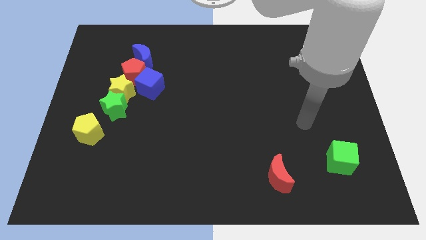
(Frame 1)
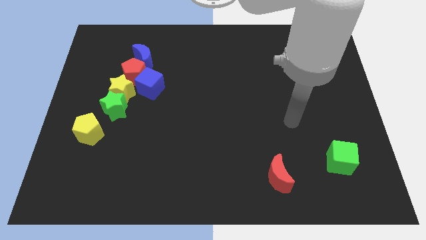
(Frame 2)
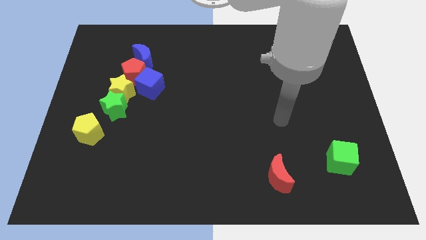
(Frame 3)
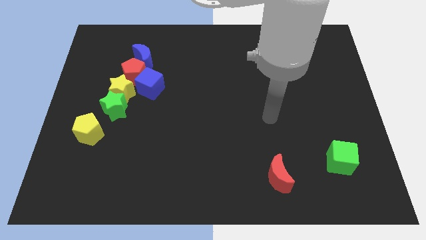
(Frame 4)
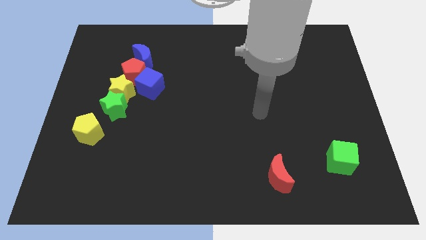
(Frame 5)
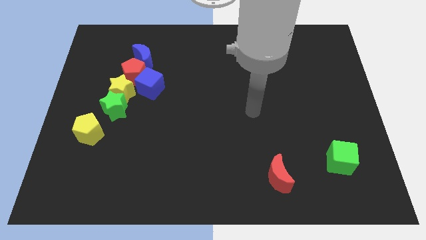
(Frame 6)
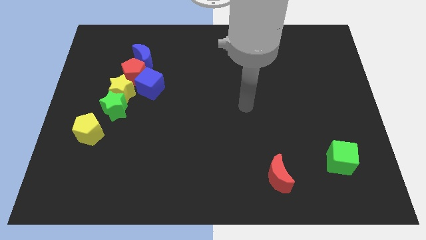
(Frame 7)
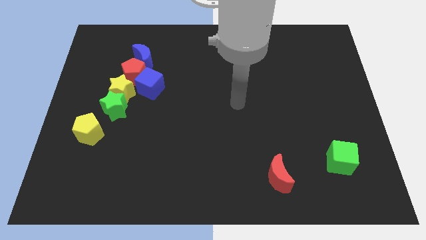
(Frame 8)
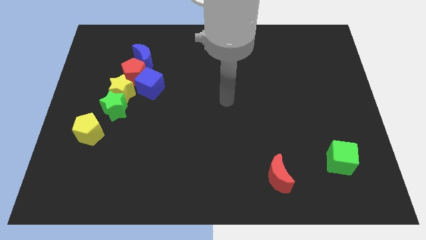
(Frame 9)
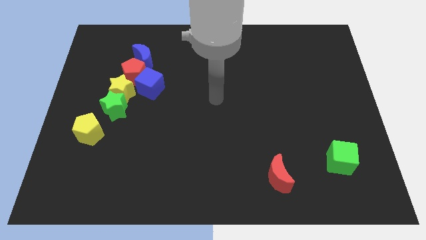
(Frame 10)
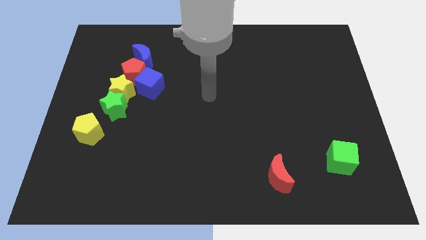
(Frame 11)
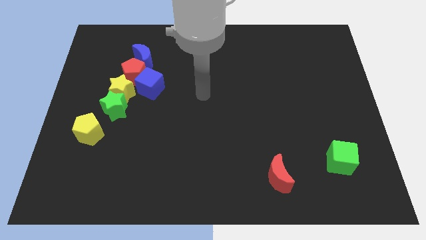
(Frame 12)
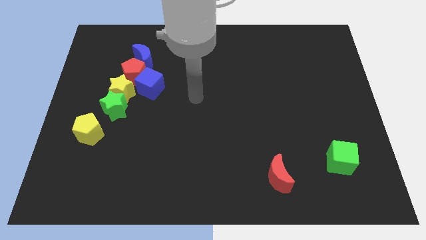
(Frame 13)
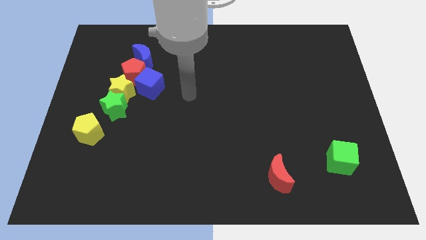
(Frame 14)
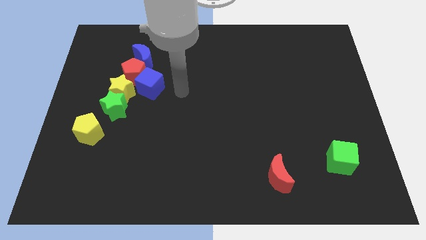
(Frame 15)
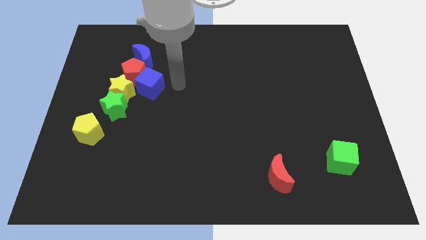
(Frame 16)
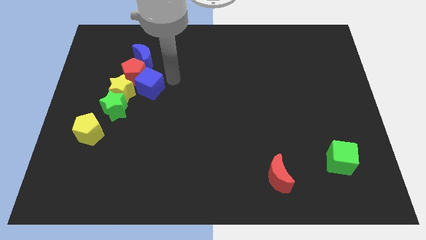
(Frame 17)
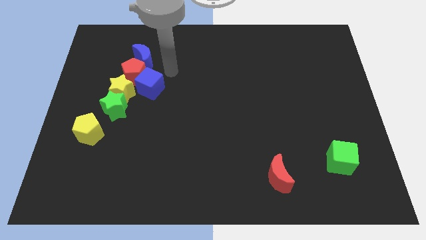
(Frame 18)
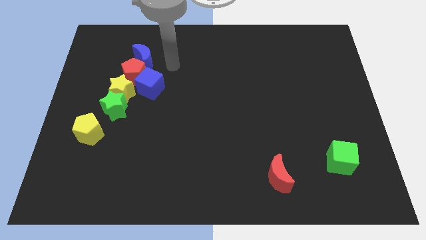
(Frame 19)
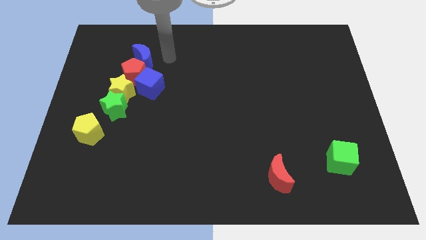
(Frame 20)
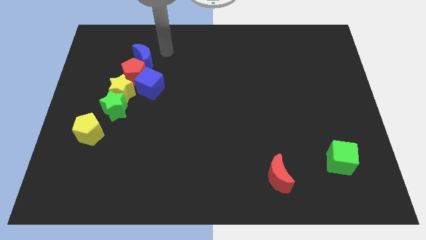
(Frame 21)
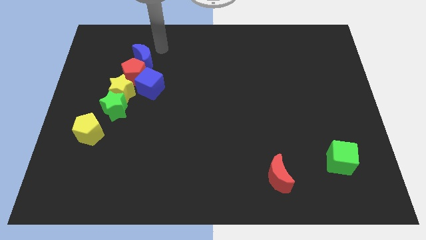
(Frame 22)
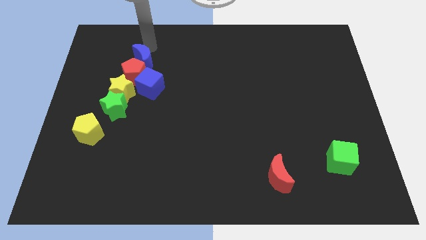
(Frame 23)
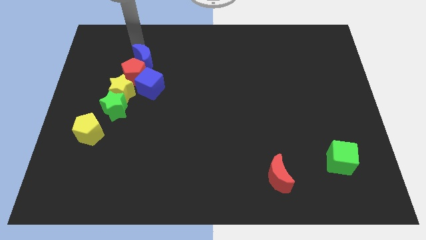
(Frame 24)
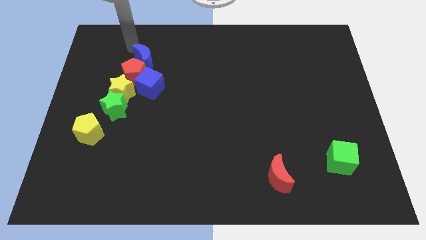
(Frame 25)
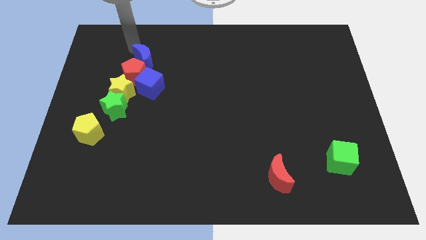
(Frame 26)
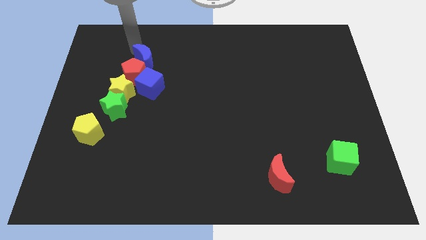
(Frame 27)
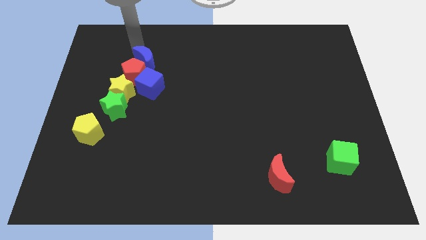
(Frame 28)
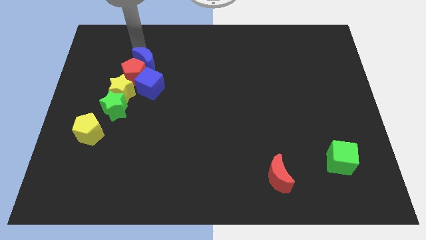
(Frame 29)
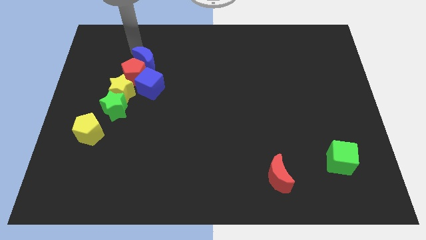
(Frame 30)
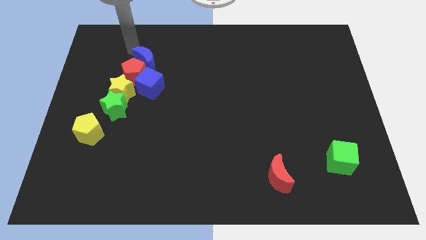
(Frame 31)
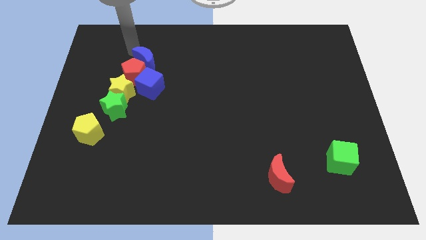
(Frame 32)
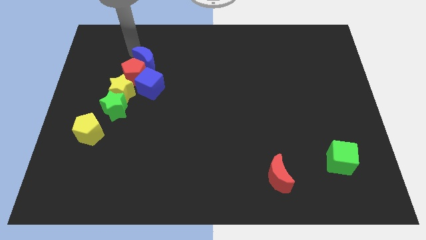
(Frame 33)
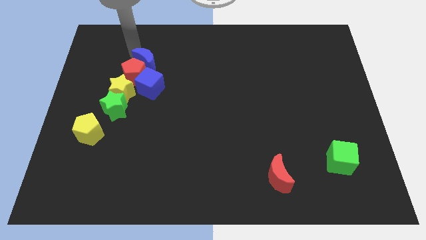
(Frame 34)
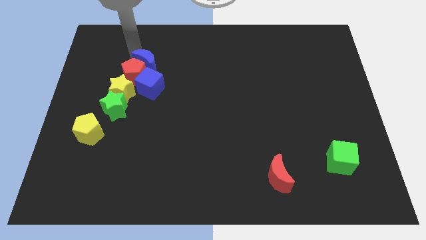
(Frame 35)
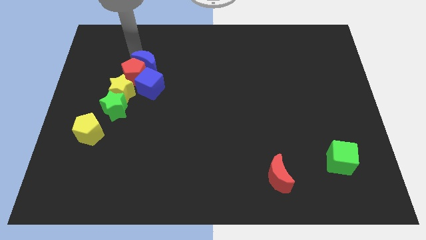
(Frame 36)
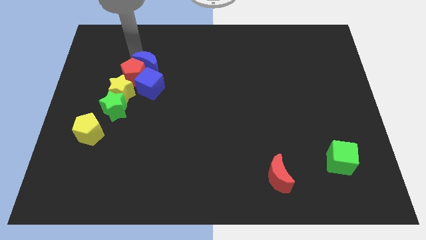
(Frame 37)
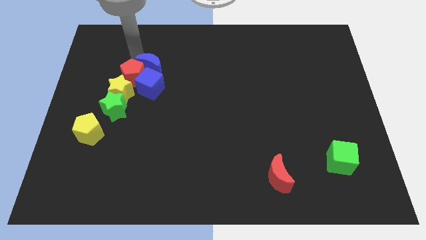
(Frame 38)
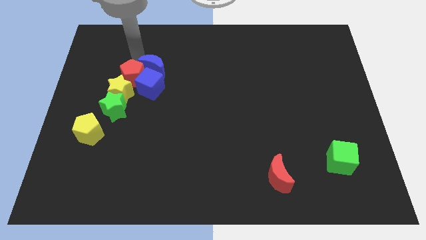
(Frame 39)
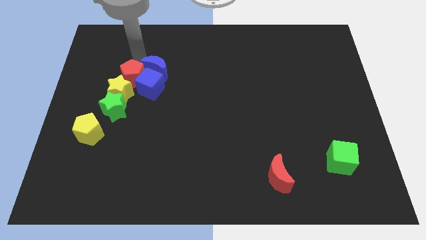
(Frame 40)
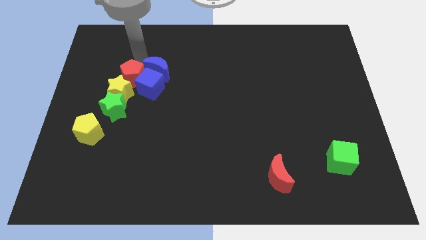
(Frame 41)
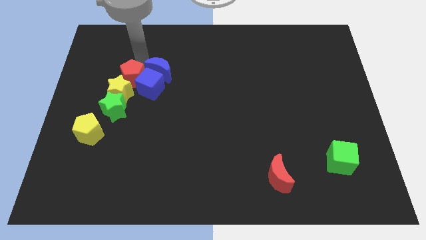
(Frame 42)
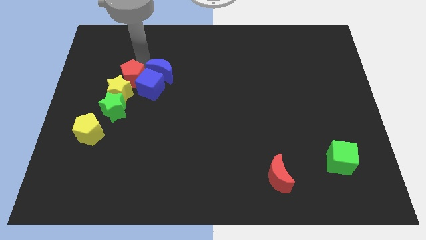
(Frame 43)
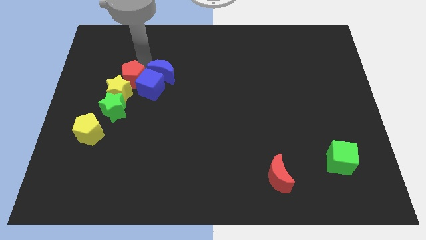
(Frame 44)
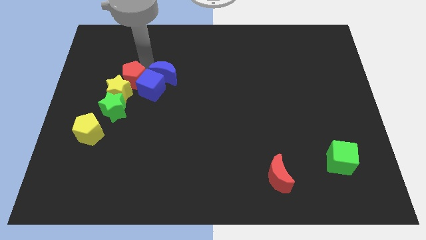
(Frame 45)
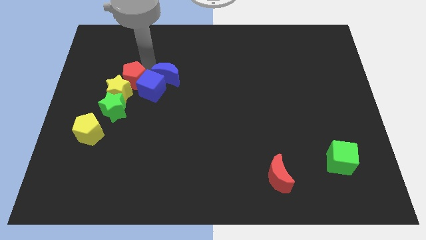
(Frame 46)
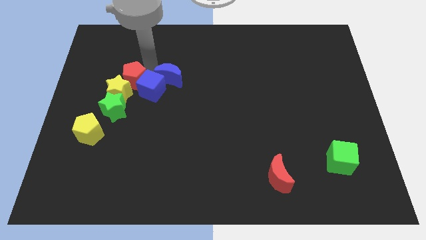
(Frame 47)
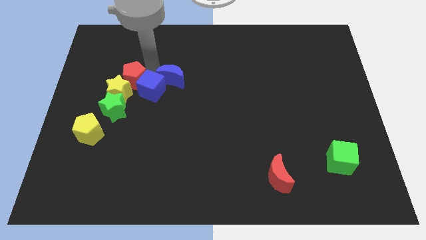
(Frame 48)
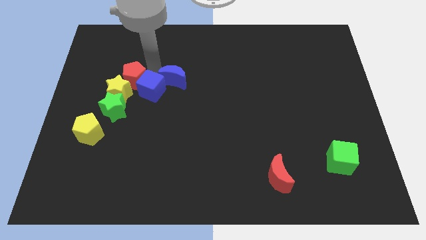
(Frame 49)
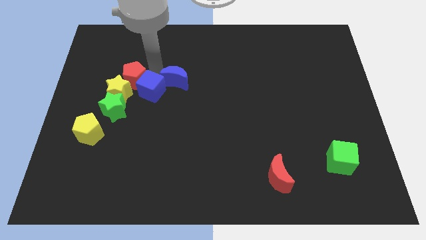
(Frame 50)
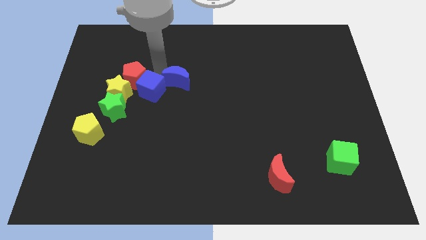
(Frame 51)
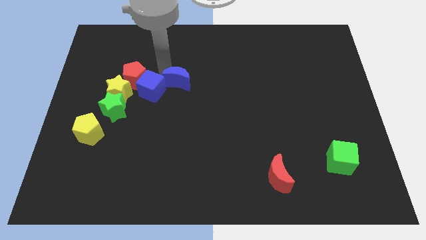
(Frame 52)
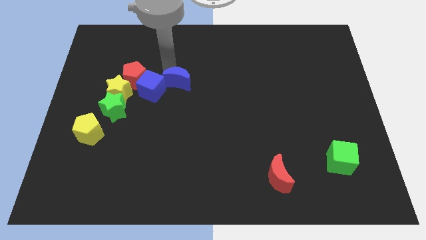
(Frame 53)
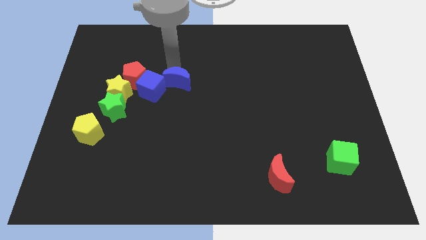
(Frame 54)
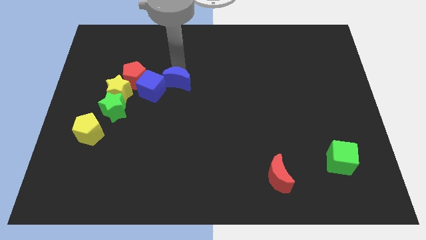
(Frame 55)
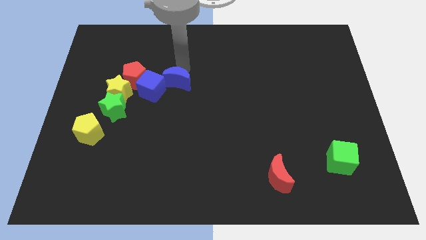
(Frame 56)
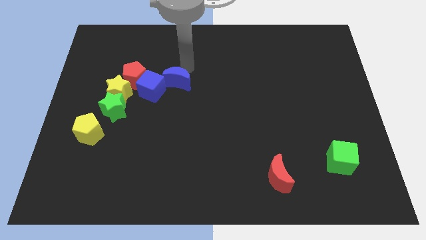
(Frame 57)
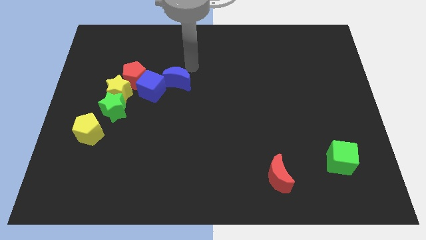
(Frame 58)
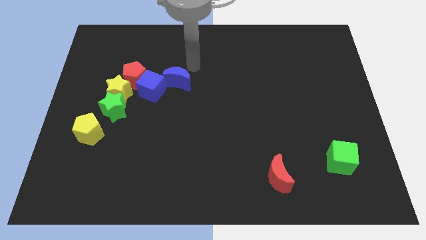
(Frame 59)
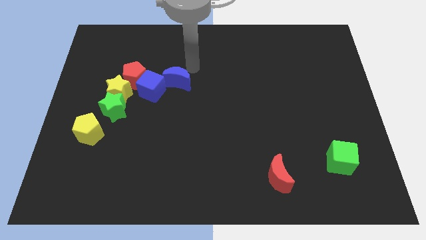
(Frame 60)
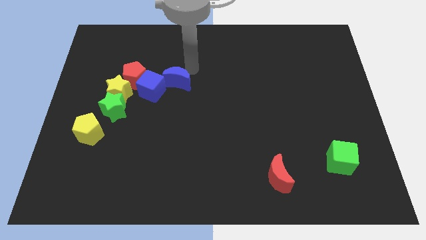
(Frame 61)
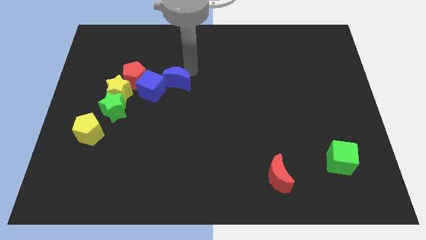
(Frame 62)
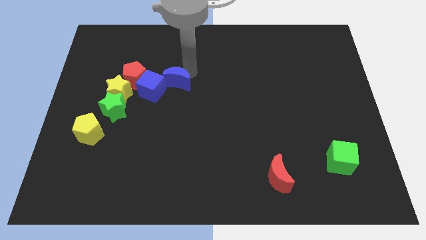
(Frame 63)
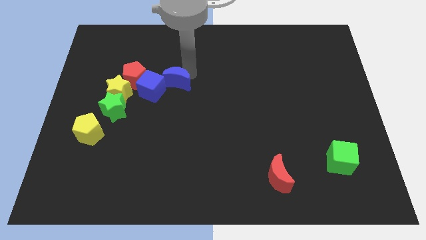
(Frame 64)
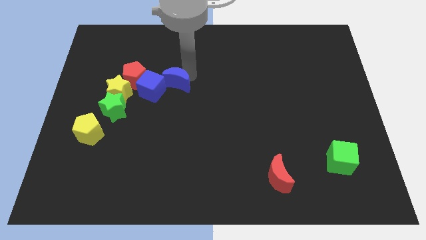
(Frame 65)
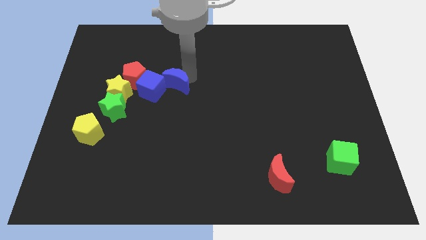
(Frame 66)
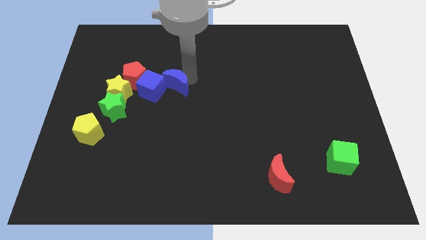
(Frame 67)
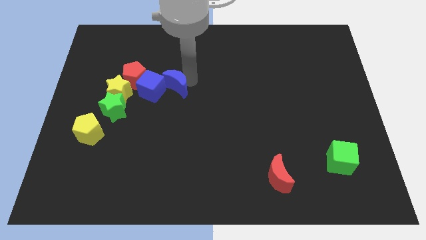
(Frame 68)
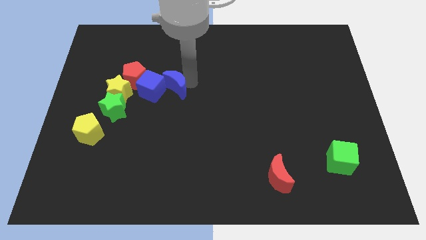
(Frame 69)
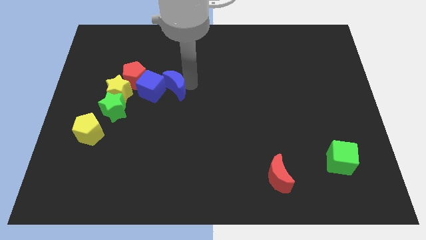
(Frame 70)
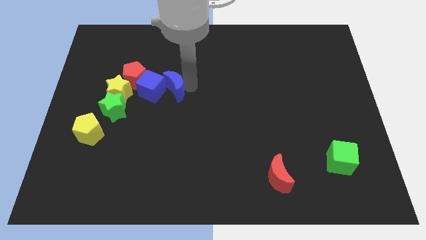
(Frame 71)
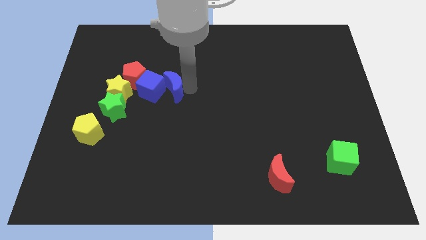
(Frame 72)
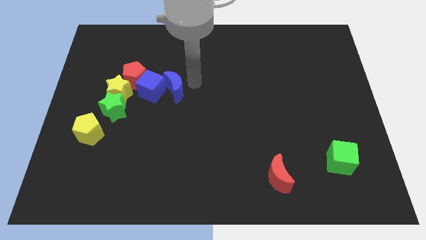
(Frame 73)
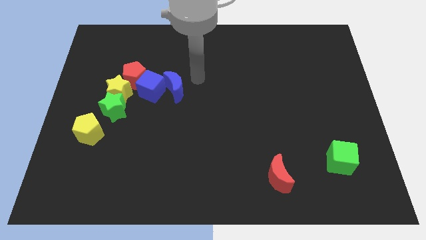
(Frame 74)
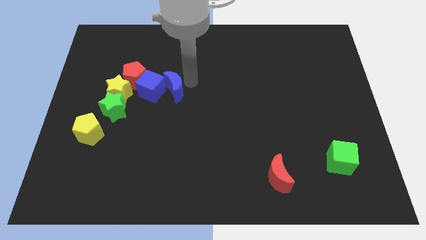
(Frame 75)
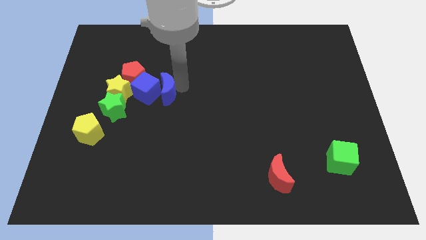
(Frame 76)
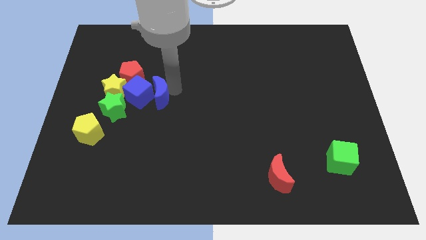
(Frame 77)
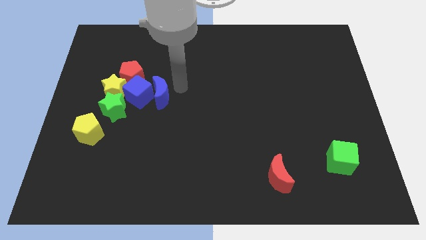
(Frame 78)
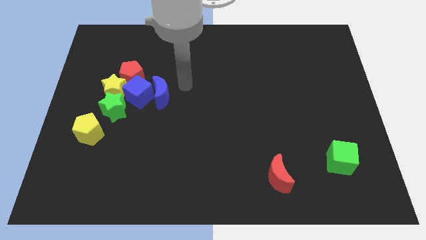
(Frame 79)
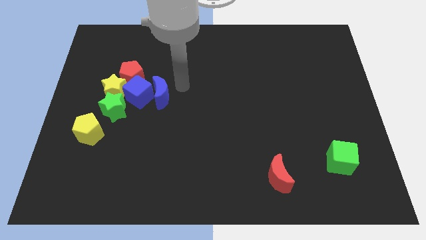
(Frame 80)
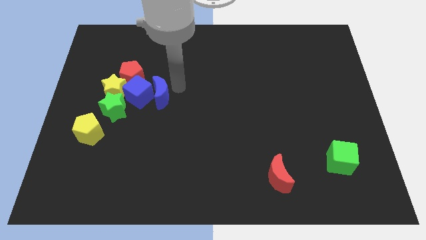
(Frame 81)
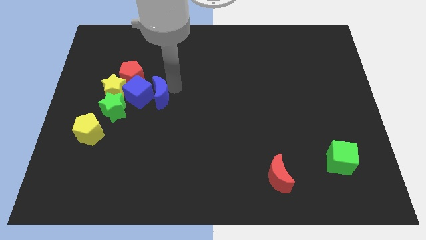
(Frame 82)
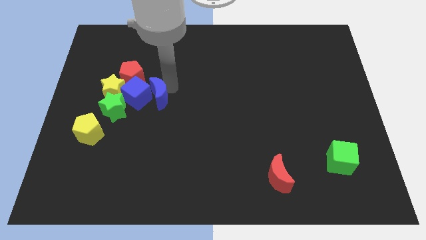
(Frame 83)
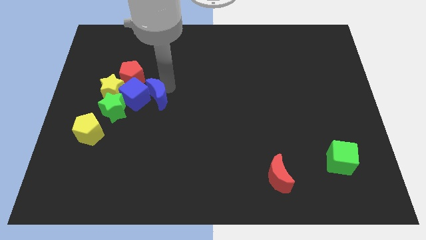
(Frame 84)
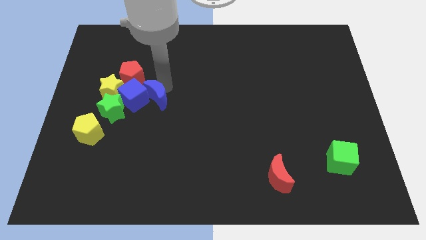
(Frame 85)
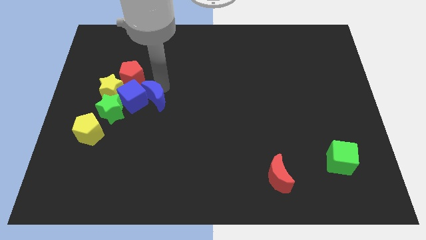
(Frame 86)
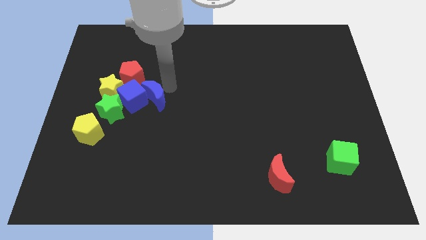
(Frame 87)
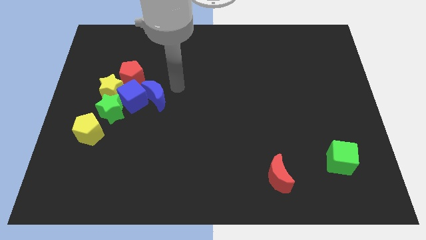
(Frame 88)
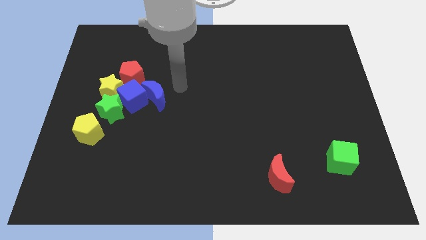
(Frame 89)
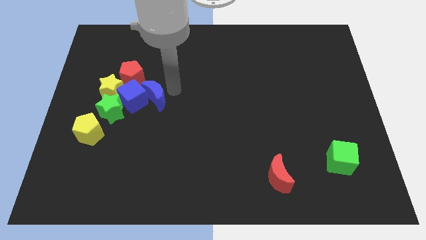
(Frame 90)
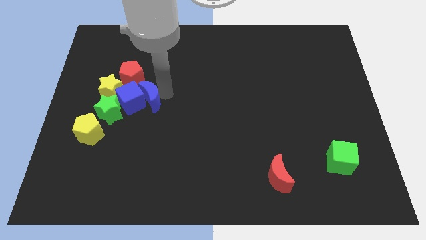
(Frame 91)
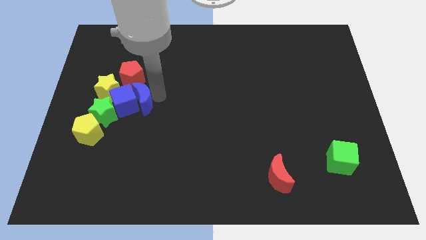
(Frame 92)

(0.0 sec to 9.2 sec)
push the blue moon below the red pentagon
